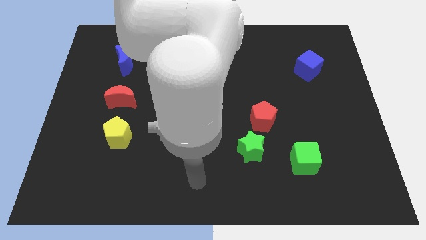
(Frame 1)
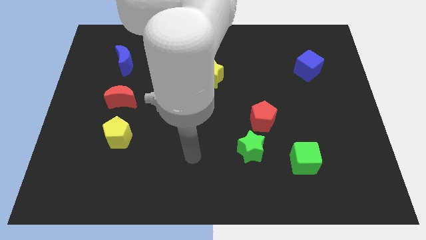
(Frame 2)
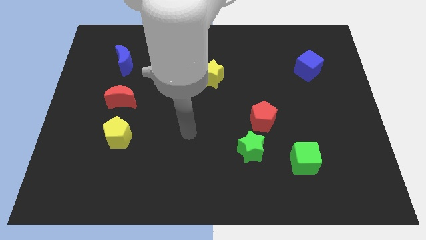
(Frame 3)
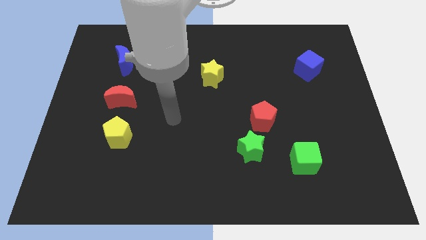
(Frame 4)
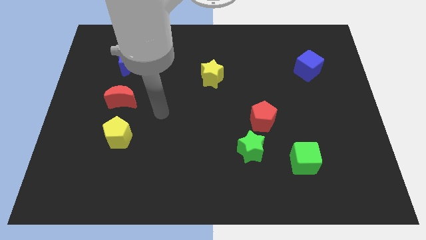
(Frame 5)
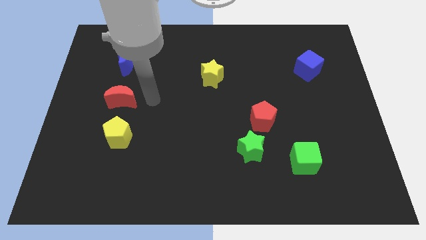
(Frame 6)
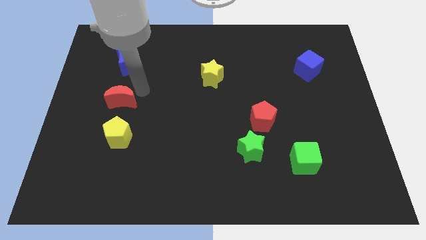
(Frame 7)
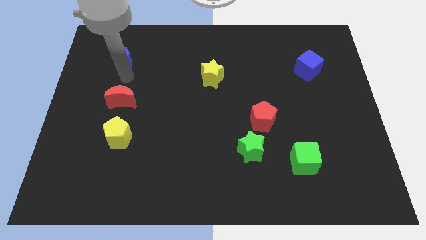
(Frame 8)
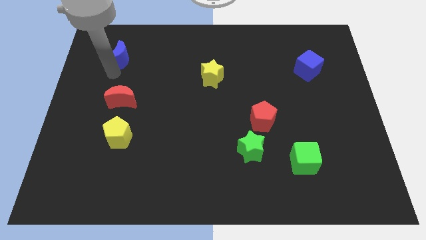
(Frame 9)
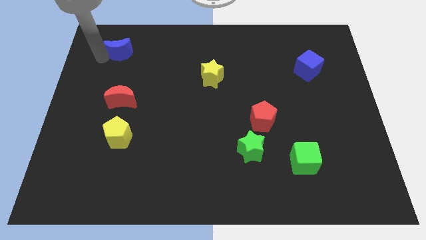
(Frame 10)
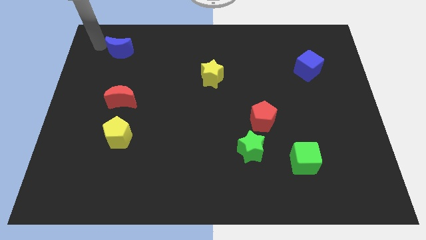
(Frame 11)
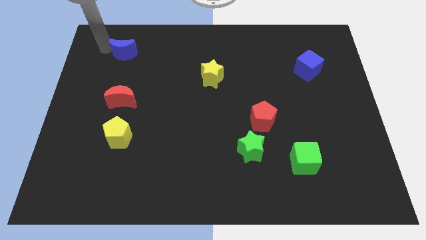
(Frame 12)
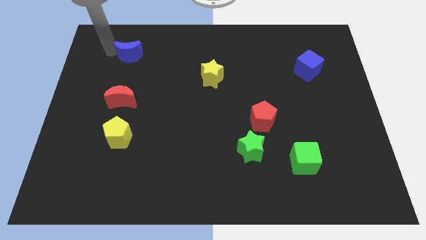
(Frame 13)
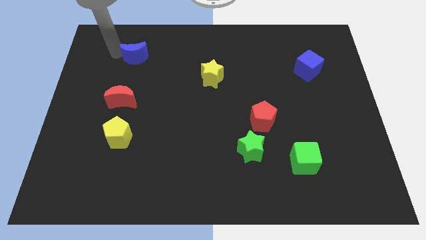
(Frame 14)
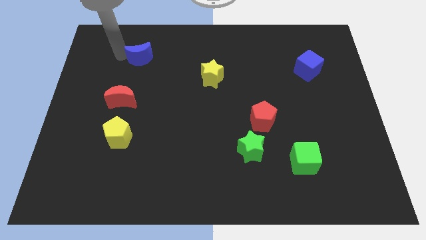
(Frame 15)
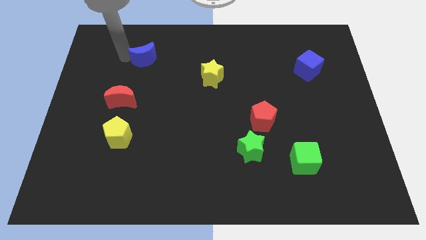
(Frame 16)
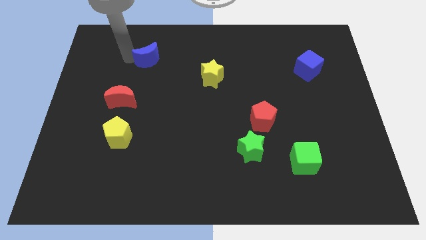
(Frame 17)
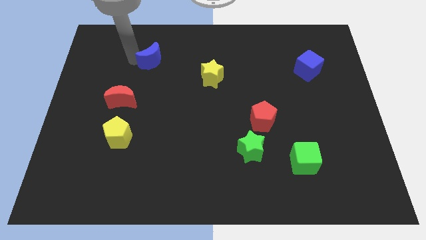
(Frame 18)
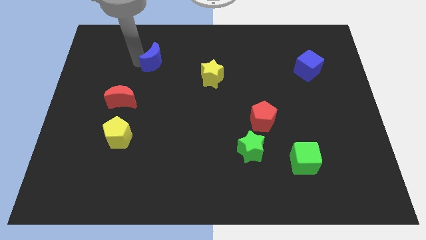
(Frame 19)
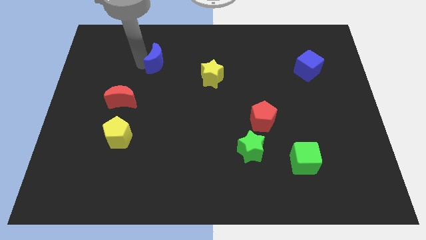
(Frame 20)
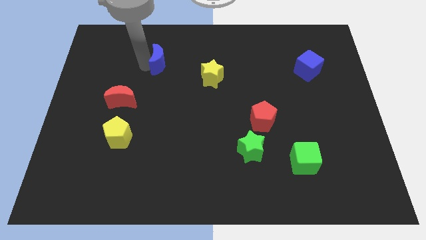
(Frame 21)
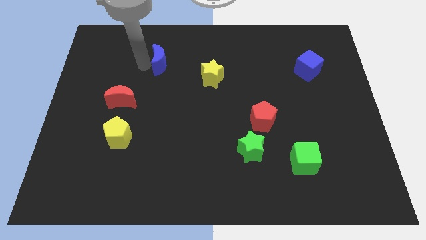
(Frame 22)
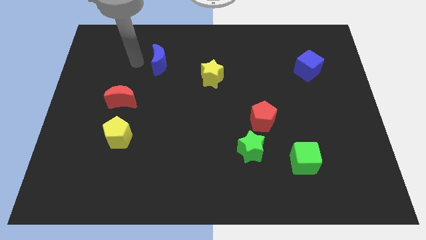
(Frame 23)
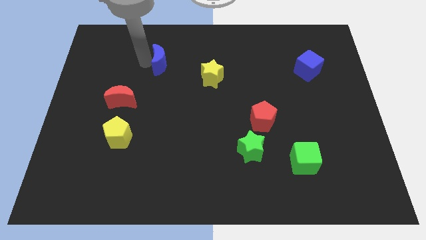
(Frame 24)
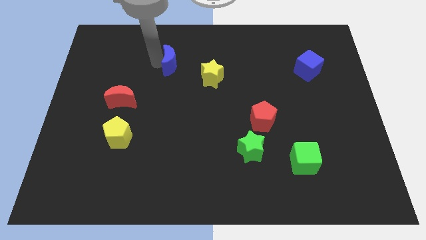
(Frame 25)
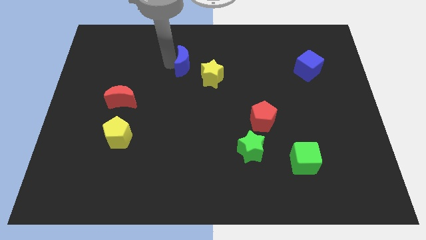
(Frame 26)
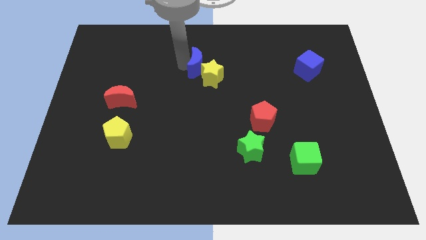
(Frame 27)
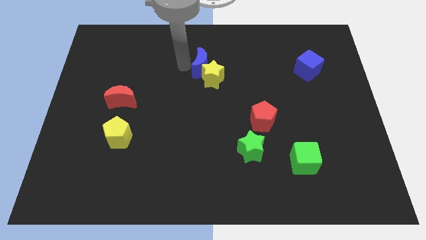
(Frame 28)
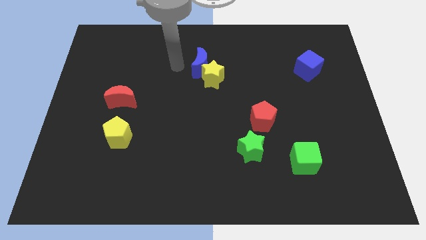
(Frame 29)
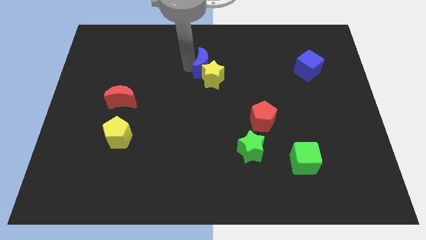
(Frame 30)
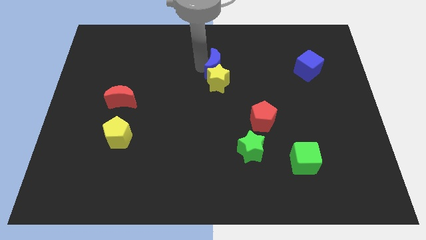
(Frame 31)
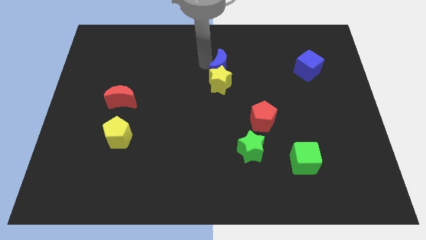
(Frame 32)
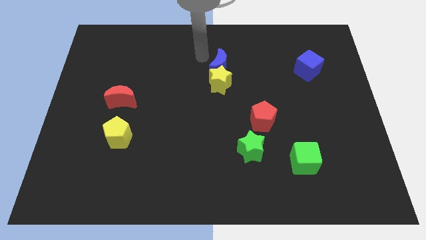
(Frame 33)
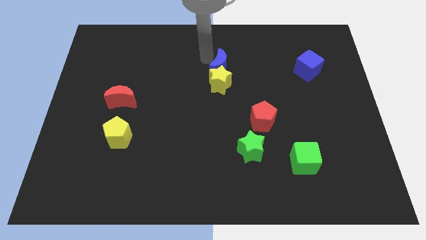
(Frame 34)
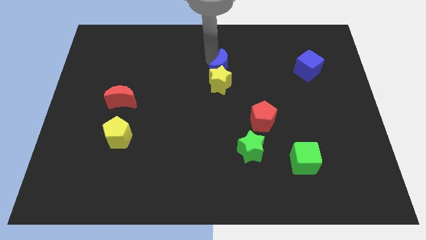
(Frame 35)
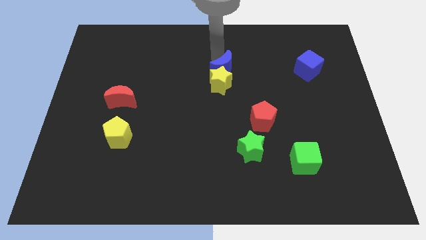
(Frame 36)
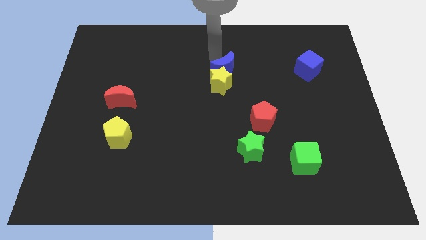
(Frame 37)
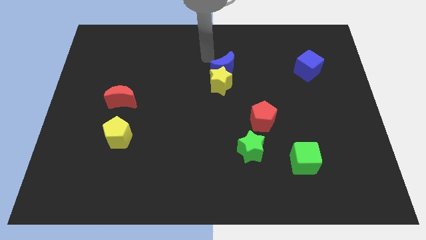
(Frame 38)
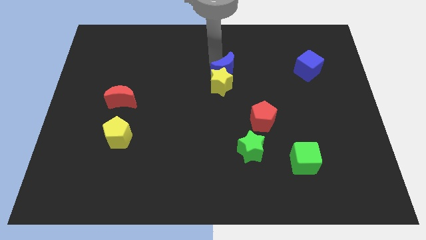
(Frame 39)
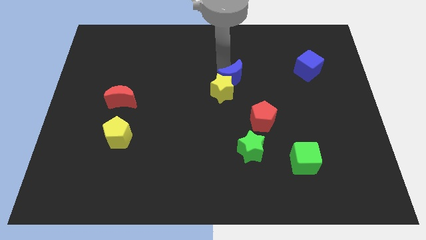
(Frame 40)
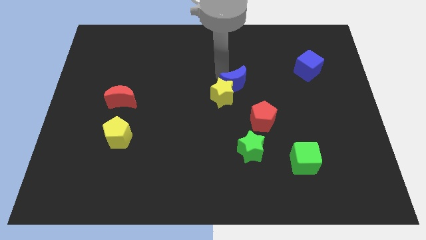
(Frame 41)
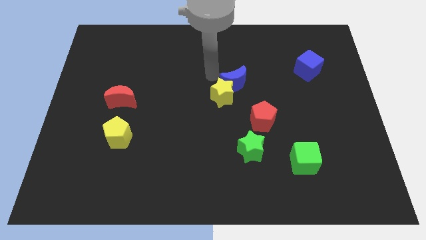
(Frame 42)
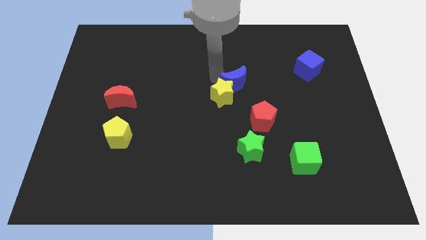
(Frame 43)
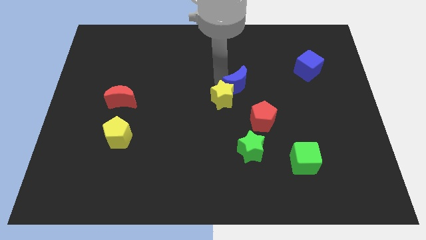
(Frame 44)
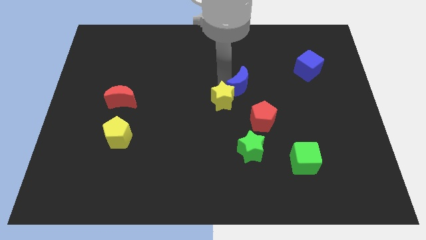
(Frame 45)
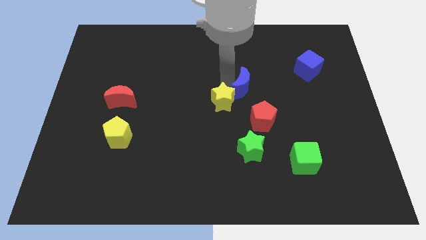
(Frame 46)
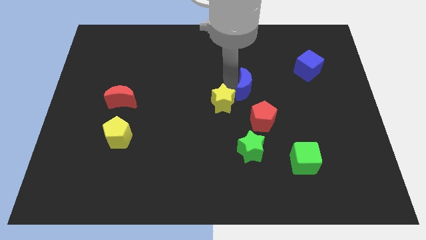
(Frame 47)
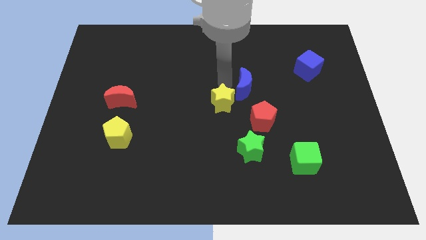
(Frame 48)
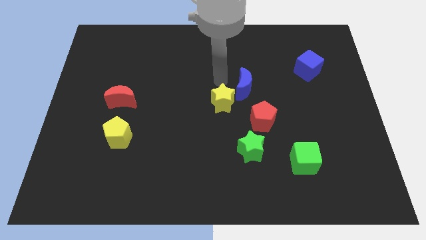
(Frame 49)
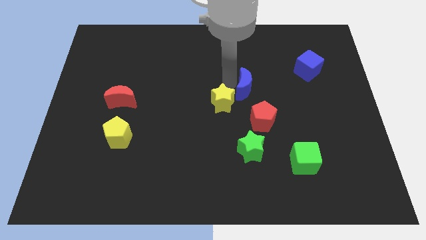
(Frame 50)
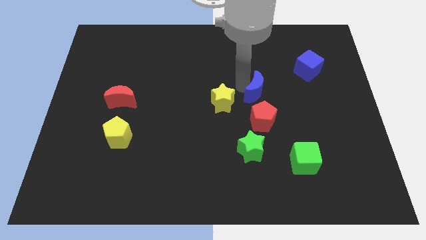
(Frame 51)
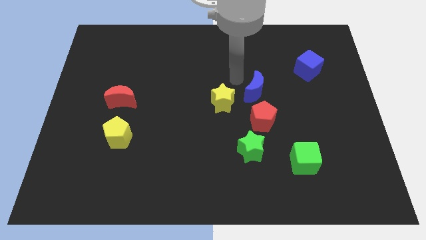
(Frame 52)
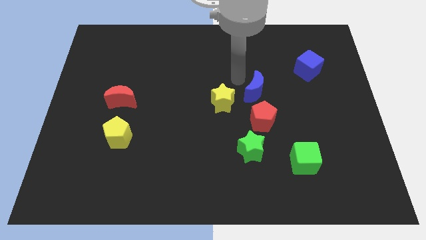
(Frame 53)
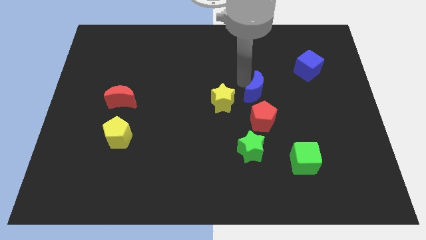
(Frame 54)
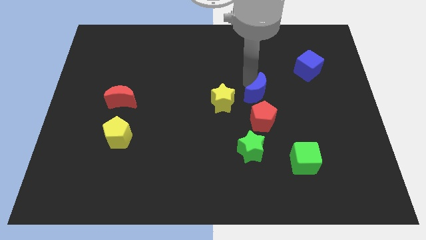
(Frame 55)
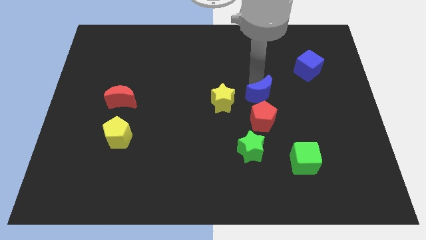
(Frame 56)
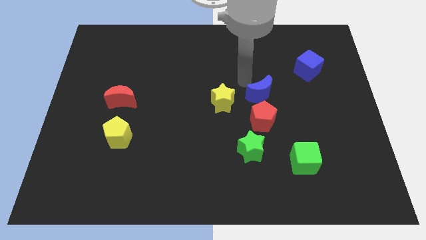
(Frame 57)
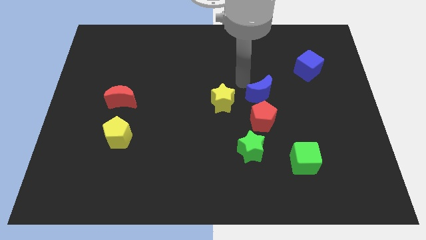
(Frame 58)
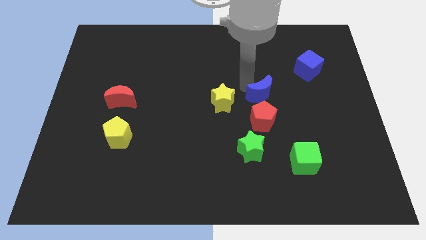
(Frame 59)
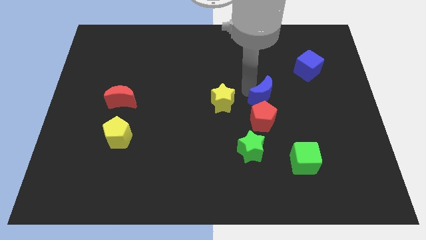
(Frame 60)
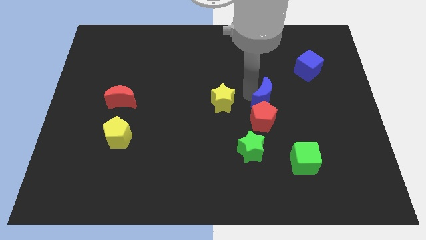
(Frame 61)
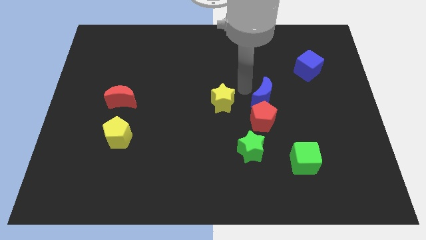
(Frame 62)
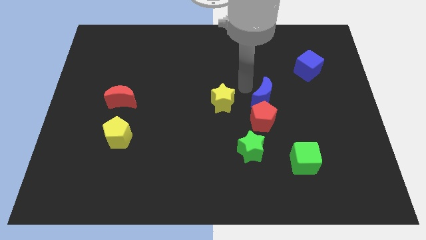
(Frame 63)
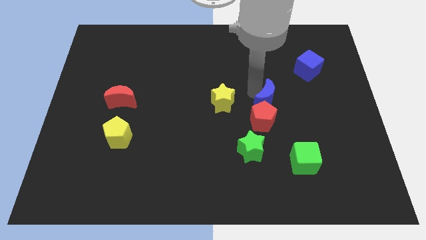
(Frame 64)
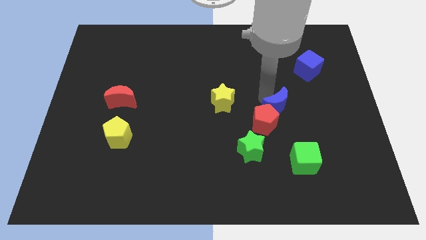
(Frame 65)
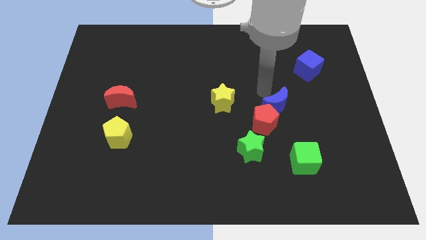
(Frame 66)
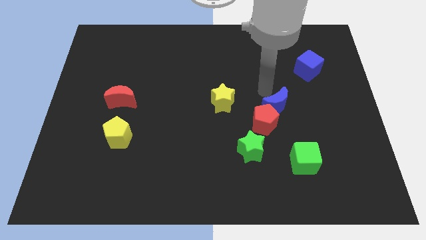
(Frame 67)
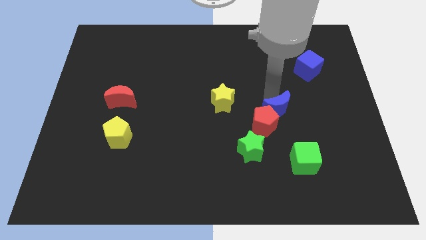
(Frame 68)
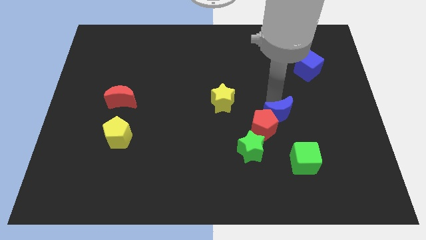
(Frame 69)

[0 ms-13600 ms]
put the blue moon to the top right of the green star

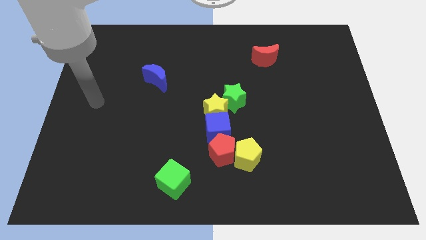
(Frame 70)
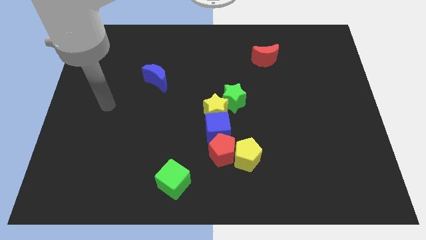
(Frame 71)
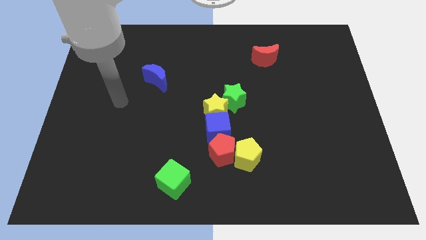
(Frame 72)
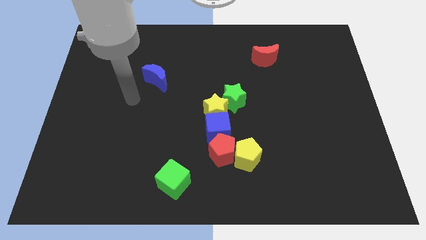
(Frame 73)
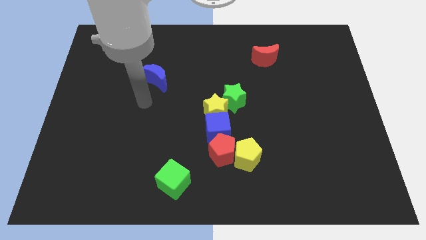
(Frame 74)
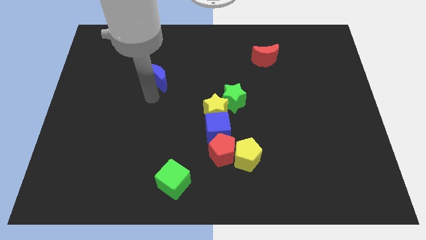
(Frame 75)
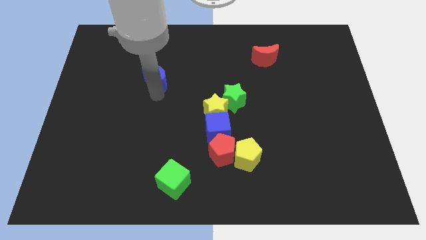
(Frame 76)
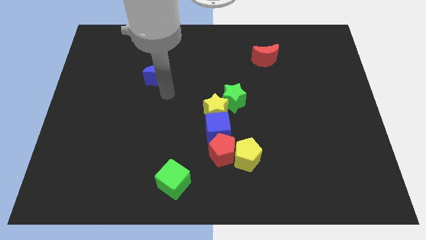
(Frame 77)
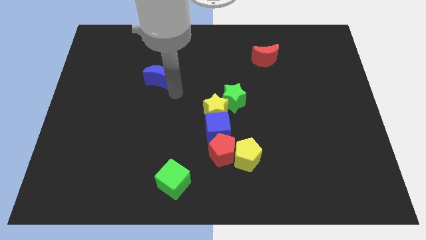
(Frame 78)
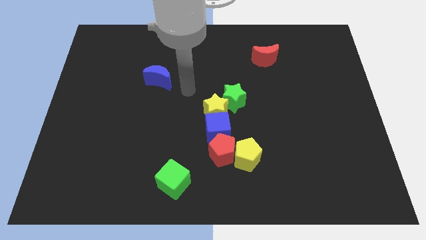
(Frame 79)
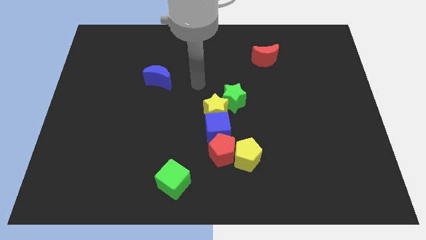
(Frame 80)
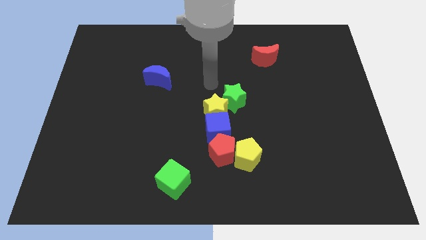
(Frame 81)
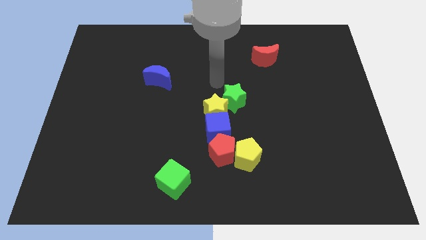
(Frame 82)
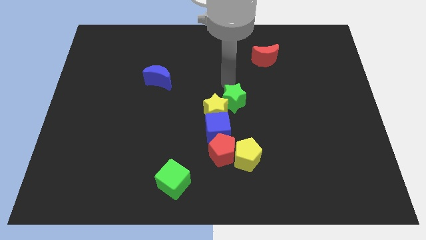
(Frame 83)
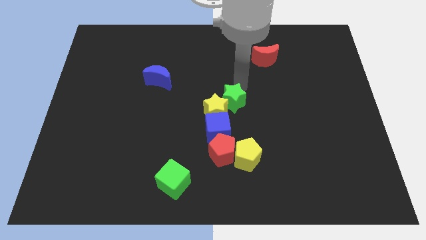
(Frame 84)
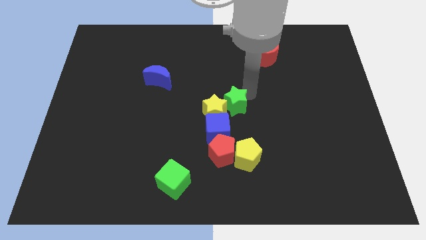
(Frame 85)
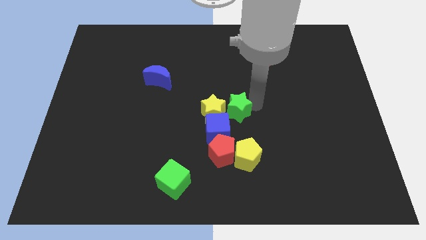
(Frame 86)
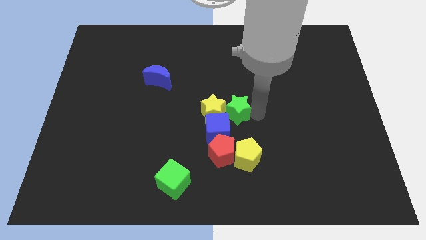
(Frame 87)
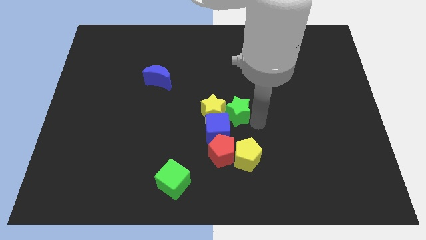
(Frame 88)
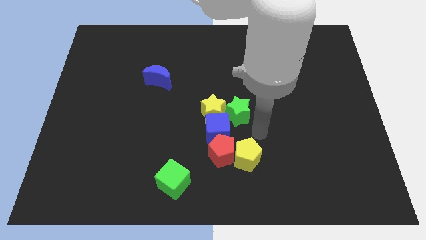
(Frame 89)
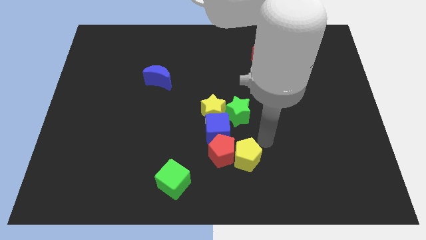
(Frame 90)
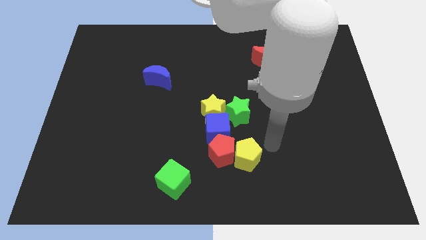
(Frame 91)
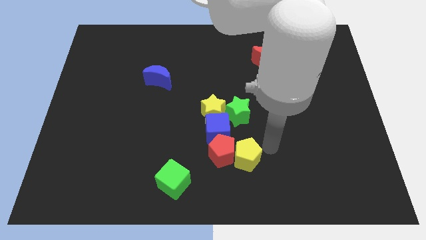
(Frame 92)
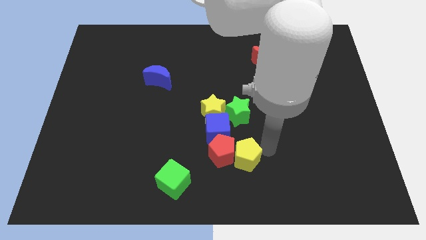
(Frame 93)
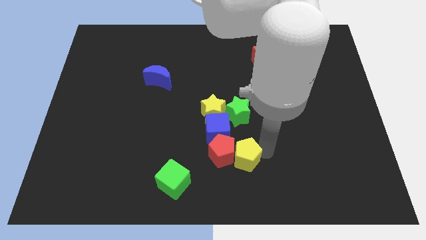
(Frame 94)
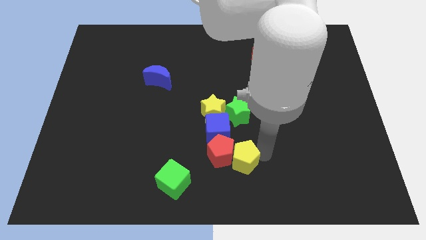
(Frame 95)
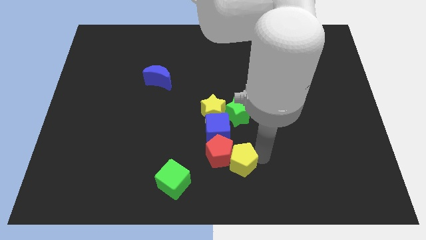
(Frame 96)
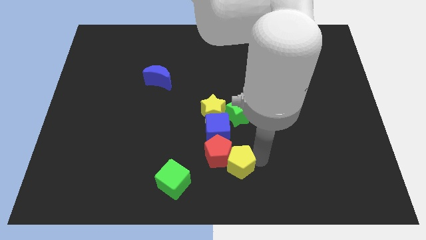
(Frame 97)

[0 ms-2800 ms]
push the yellow pentagon to the bottom side of the blue cube
